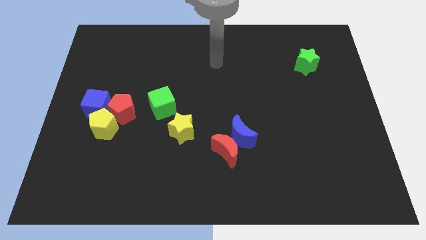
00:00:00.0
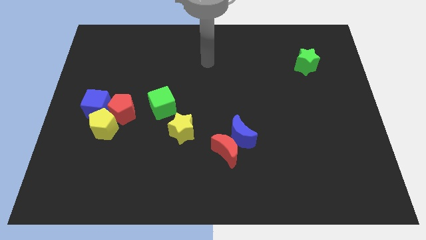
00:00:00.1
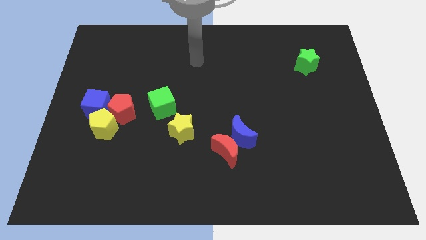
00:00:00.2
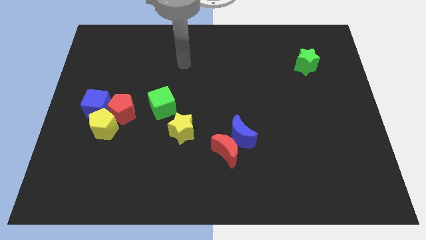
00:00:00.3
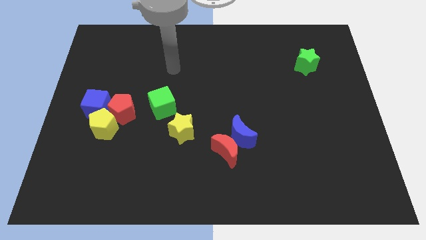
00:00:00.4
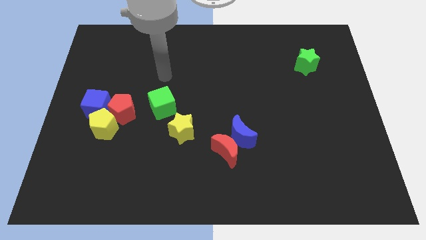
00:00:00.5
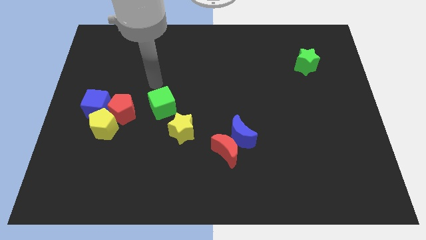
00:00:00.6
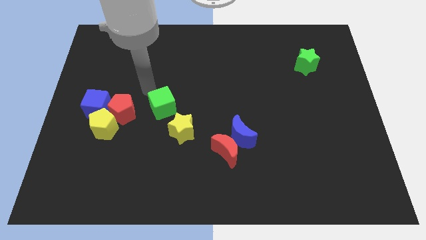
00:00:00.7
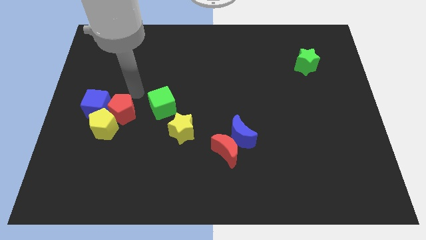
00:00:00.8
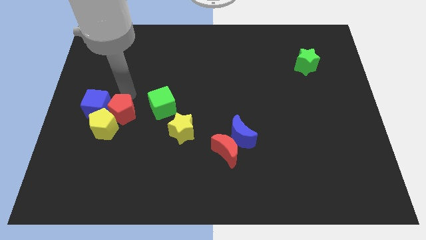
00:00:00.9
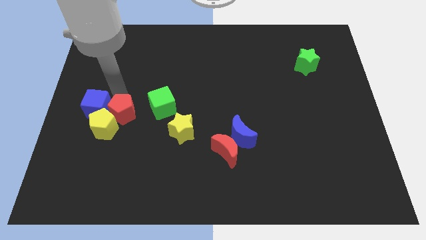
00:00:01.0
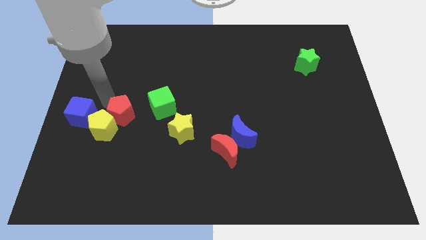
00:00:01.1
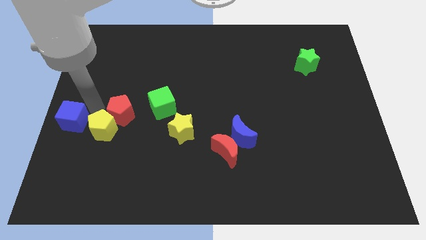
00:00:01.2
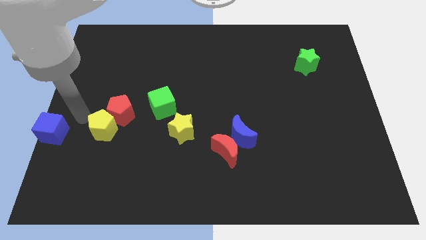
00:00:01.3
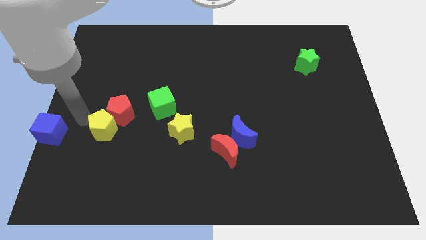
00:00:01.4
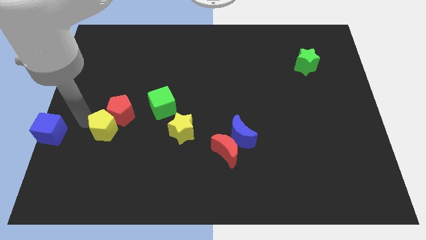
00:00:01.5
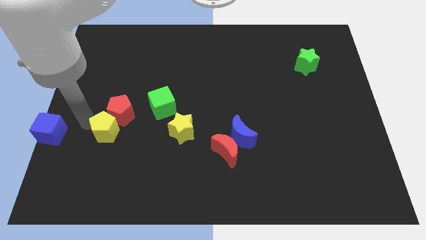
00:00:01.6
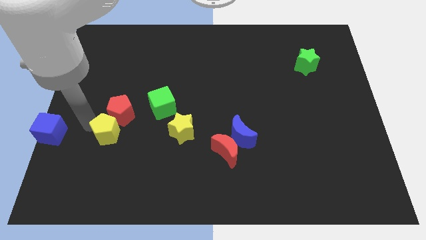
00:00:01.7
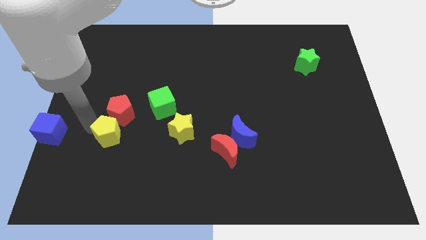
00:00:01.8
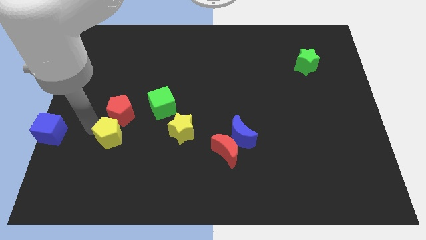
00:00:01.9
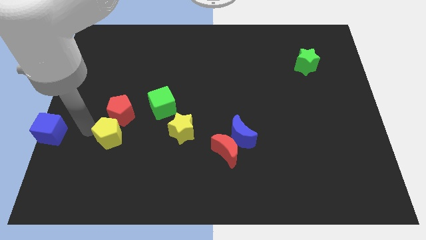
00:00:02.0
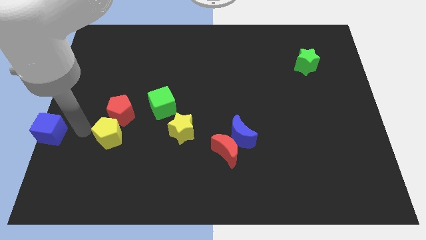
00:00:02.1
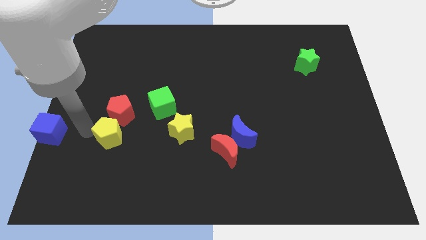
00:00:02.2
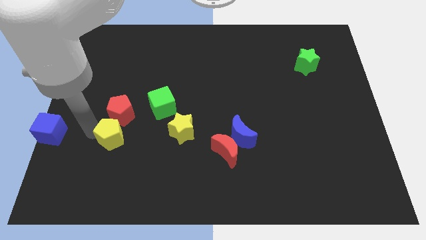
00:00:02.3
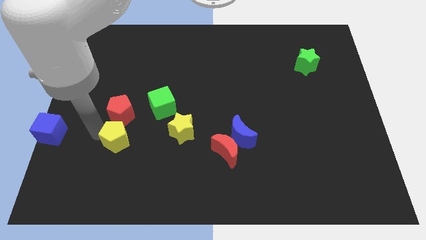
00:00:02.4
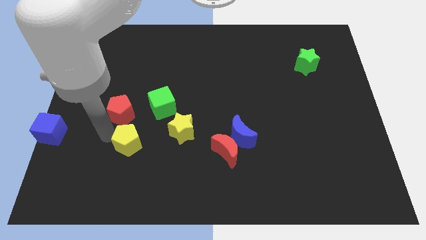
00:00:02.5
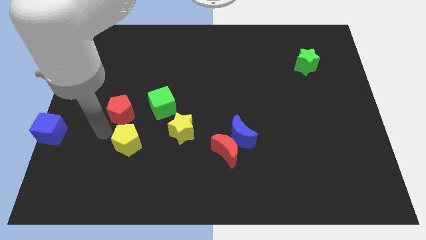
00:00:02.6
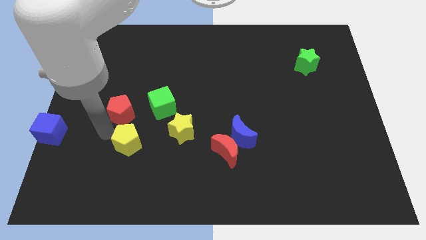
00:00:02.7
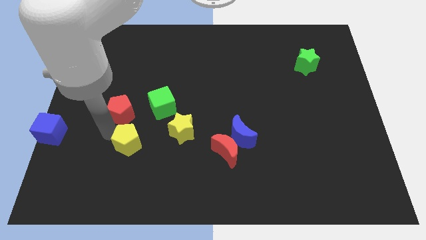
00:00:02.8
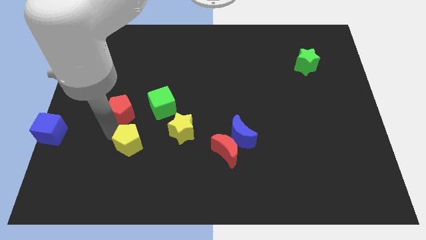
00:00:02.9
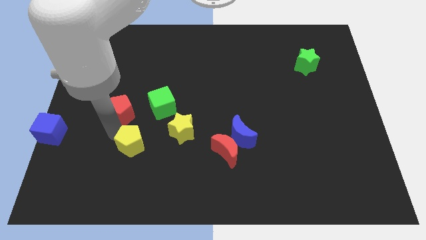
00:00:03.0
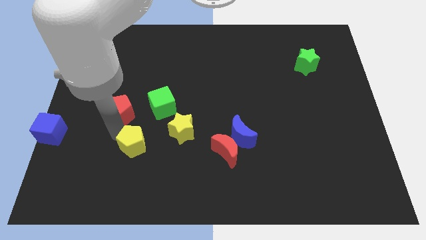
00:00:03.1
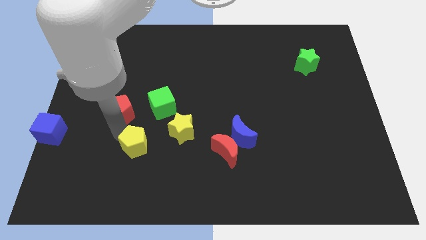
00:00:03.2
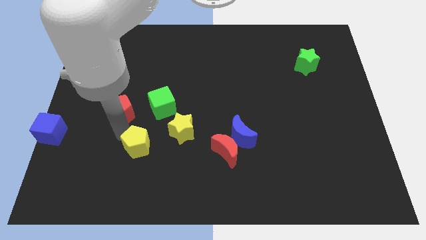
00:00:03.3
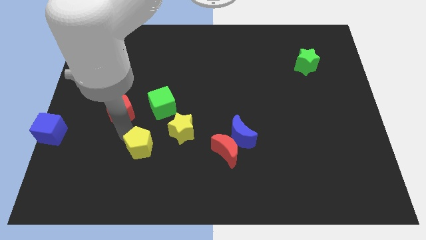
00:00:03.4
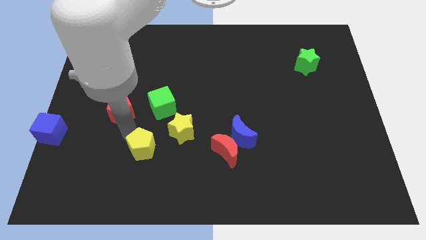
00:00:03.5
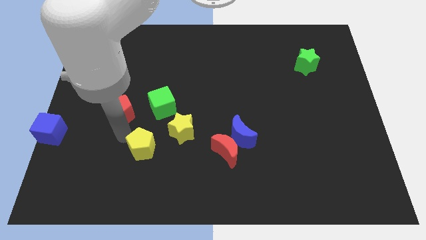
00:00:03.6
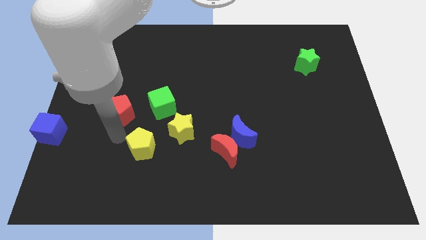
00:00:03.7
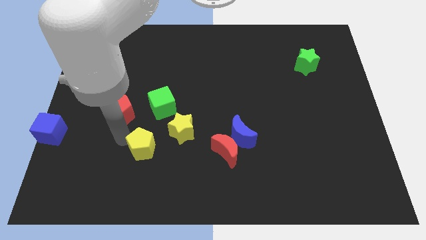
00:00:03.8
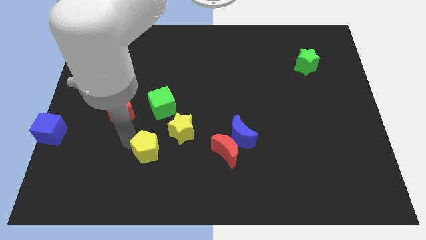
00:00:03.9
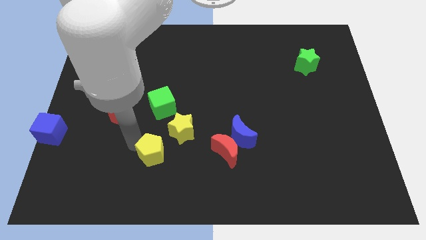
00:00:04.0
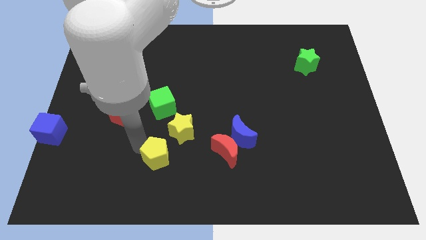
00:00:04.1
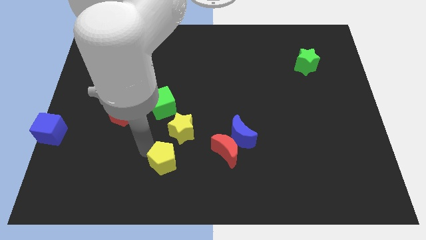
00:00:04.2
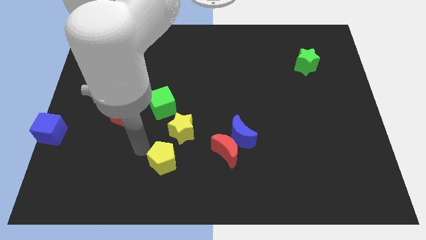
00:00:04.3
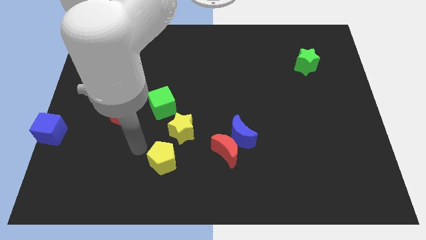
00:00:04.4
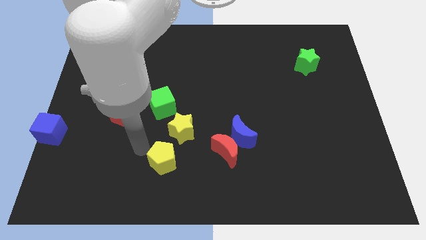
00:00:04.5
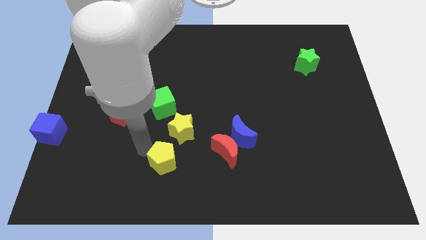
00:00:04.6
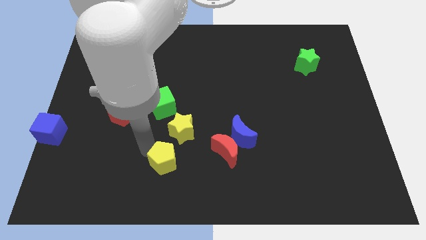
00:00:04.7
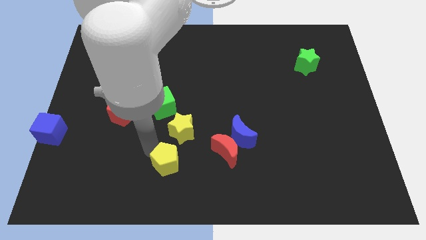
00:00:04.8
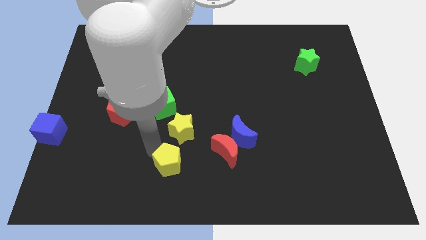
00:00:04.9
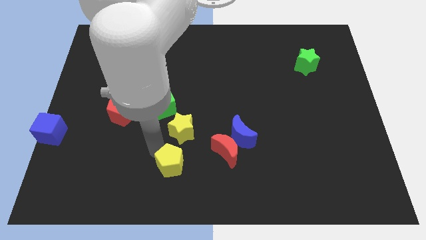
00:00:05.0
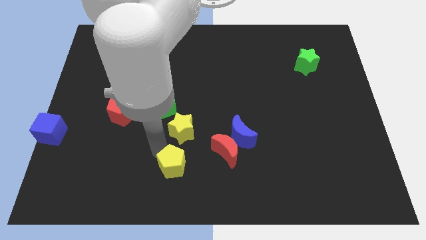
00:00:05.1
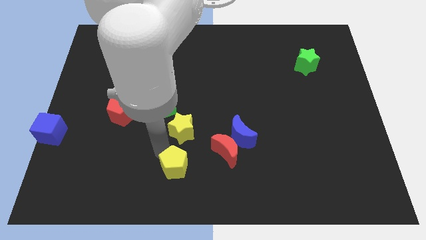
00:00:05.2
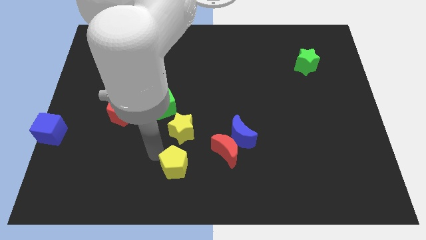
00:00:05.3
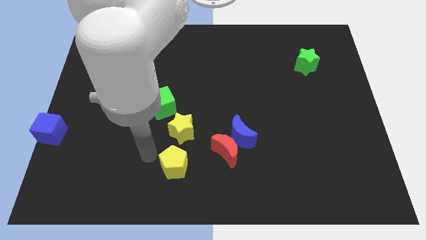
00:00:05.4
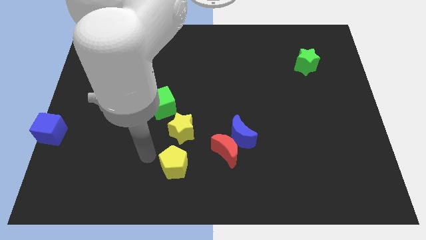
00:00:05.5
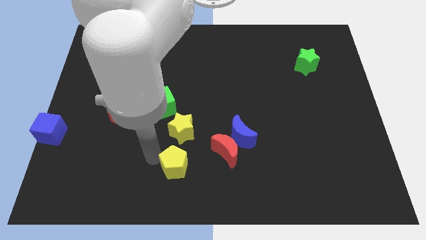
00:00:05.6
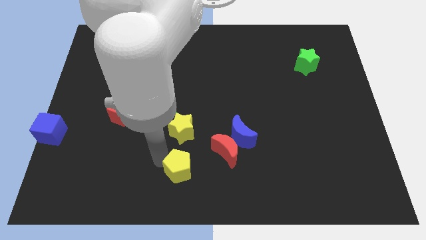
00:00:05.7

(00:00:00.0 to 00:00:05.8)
push the yellow pentagon to the bottom left of the red moon

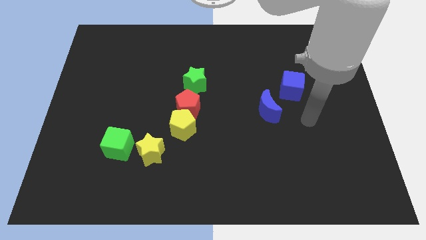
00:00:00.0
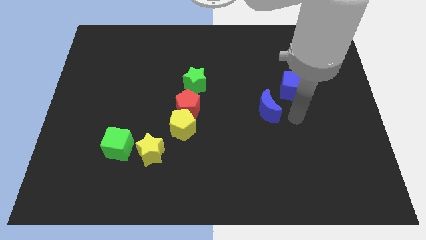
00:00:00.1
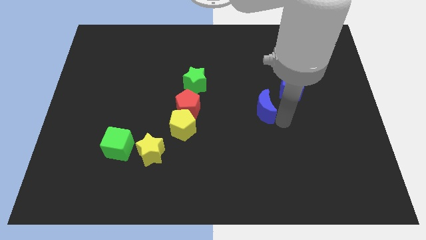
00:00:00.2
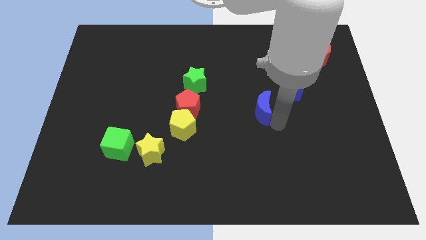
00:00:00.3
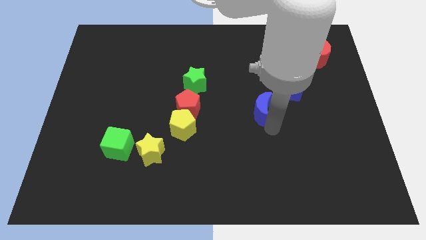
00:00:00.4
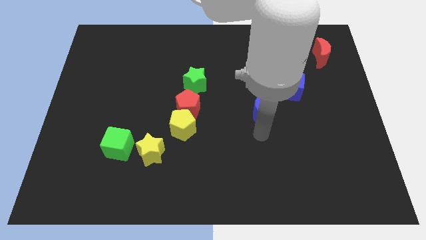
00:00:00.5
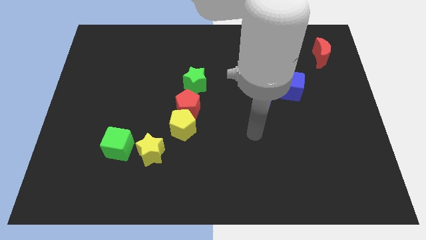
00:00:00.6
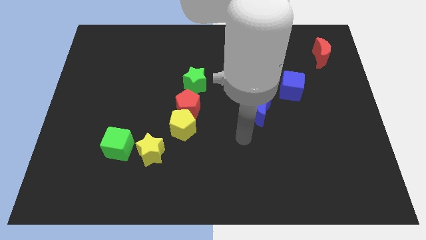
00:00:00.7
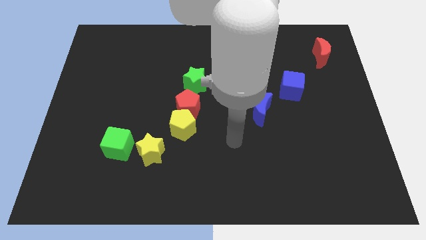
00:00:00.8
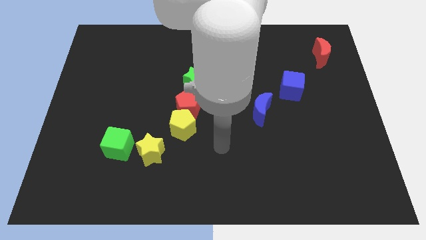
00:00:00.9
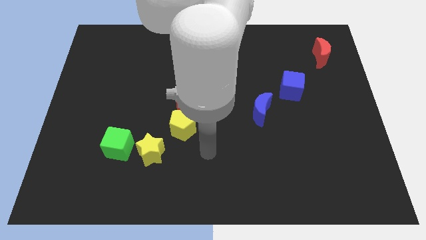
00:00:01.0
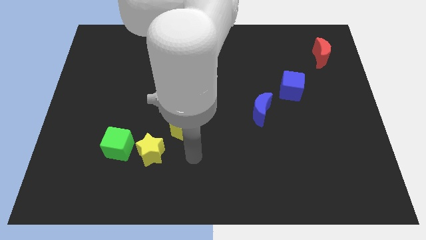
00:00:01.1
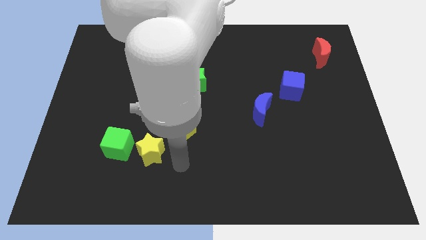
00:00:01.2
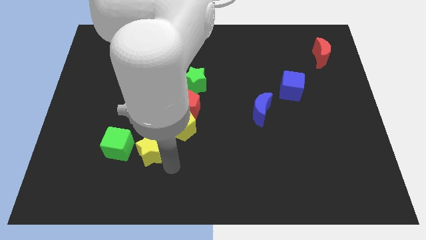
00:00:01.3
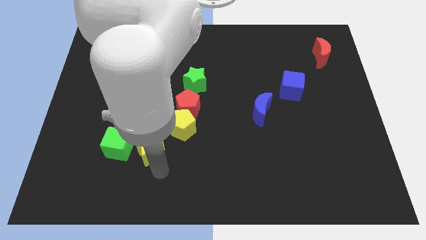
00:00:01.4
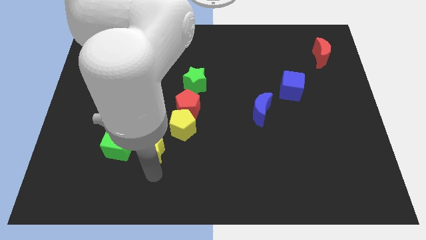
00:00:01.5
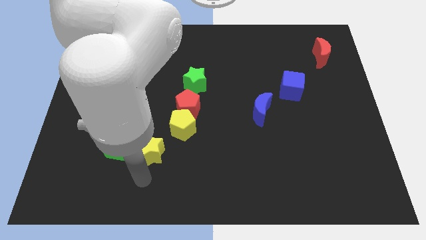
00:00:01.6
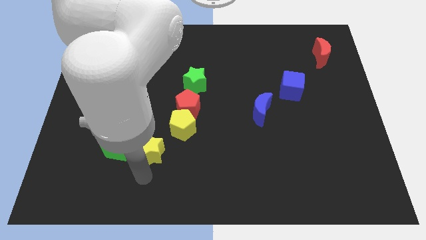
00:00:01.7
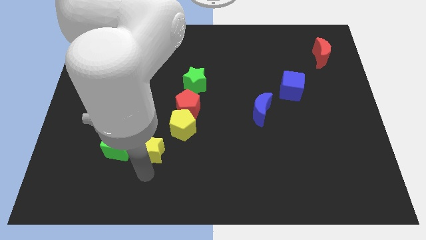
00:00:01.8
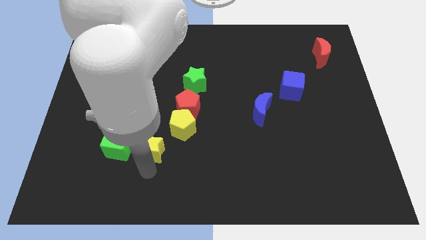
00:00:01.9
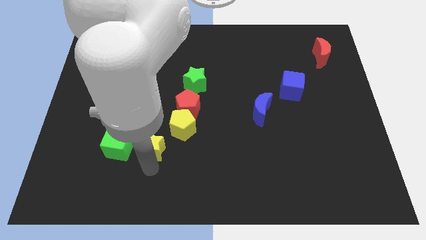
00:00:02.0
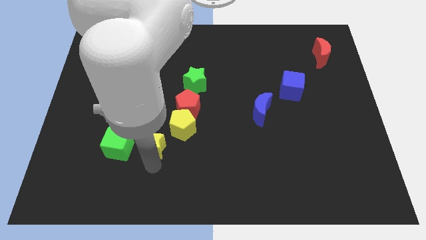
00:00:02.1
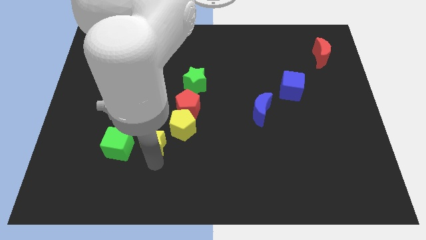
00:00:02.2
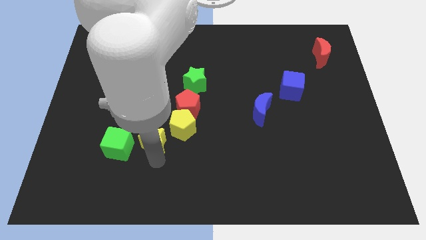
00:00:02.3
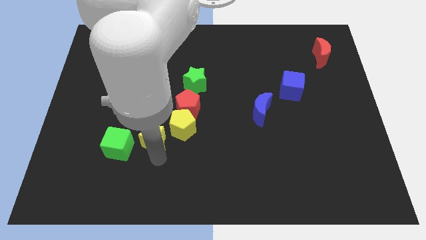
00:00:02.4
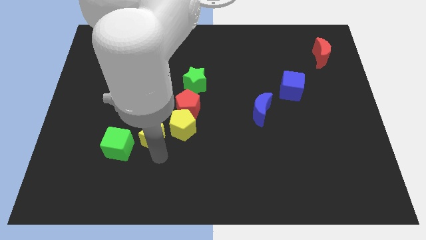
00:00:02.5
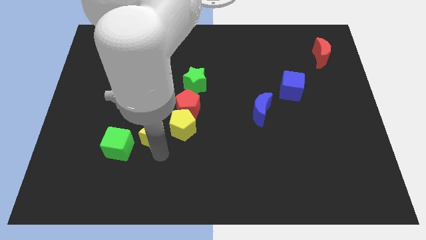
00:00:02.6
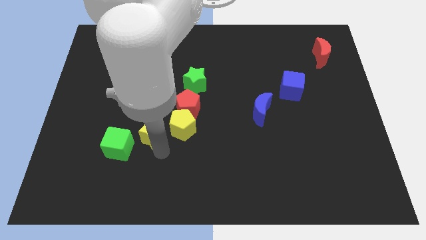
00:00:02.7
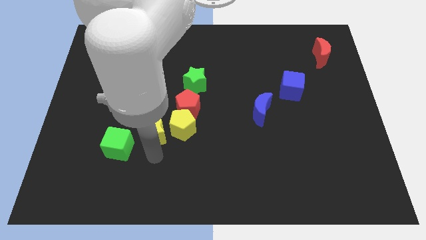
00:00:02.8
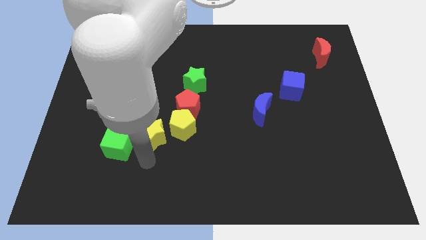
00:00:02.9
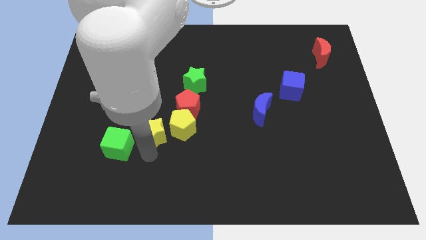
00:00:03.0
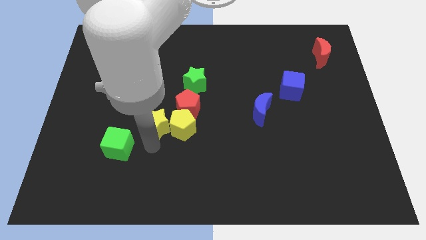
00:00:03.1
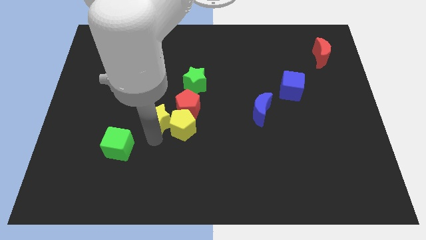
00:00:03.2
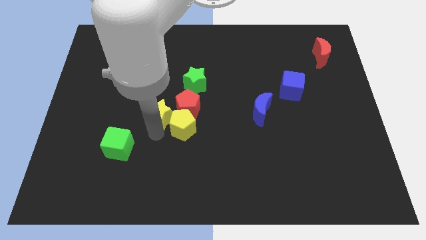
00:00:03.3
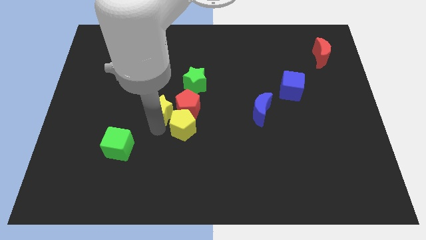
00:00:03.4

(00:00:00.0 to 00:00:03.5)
move the yellow star to the top of the yellow pentagon
